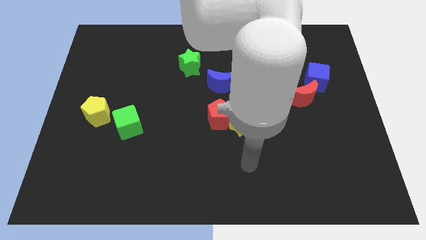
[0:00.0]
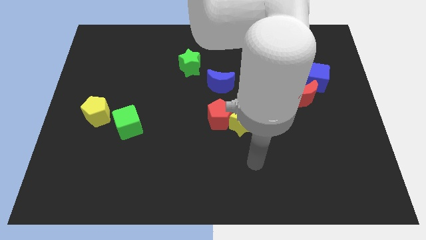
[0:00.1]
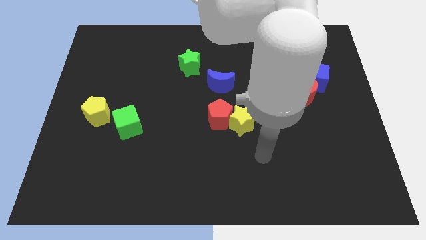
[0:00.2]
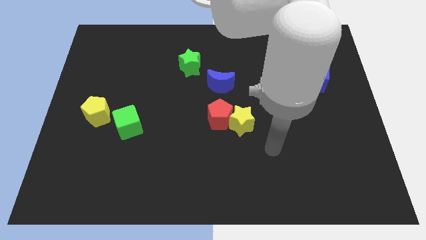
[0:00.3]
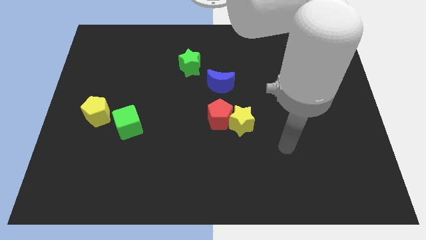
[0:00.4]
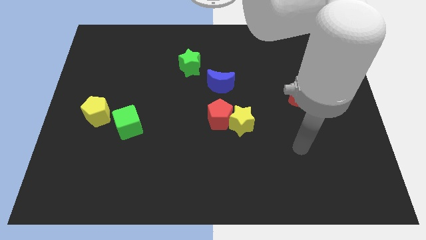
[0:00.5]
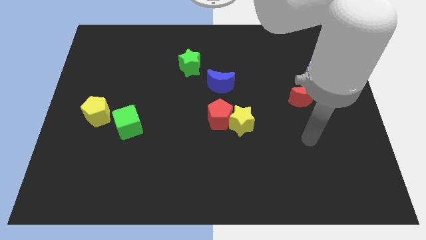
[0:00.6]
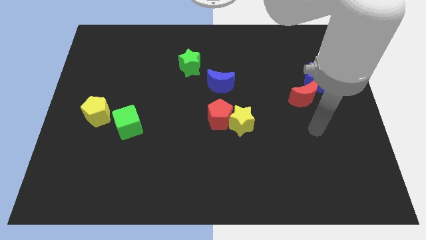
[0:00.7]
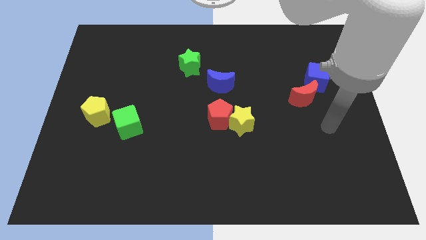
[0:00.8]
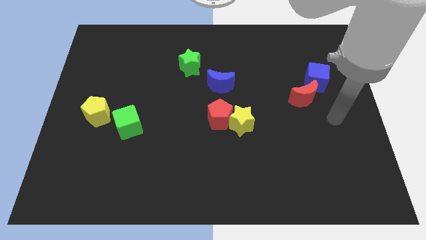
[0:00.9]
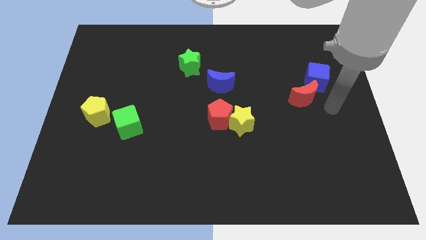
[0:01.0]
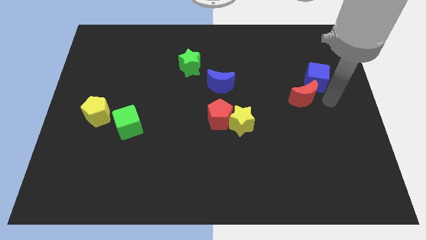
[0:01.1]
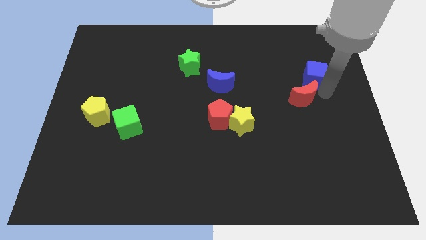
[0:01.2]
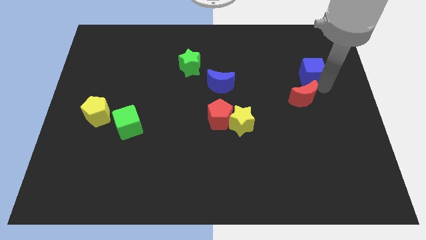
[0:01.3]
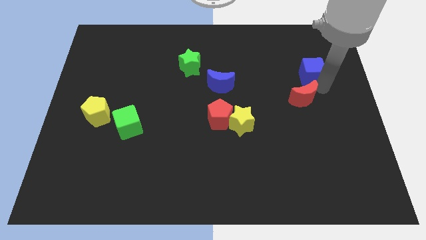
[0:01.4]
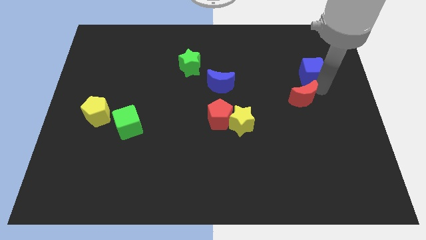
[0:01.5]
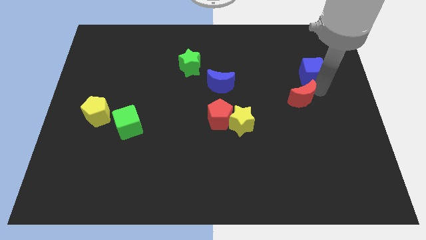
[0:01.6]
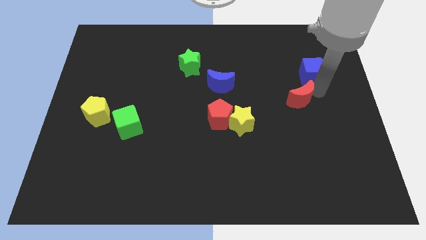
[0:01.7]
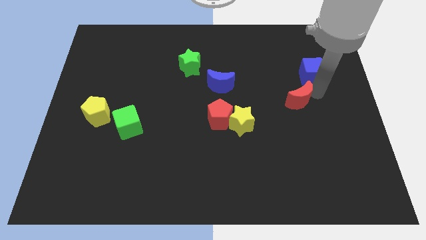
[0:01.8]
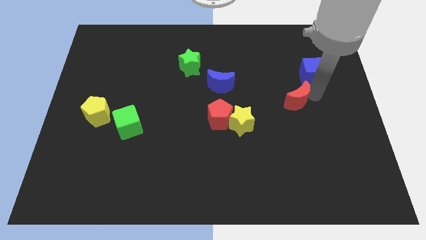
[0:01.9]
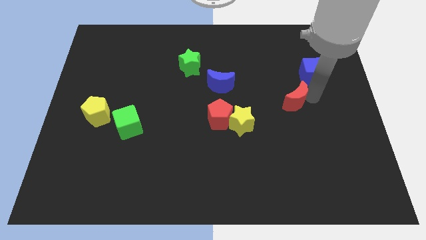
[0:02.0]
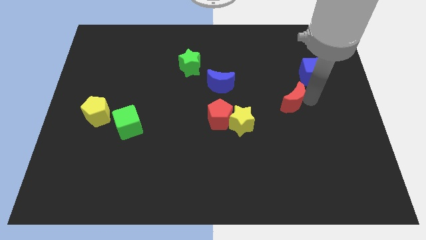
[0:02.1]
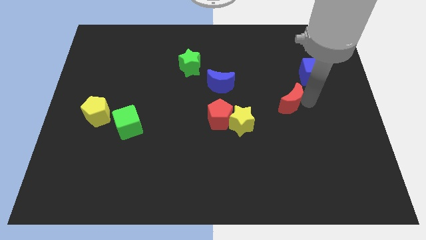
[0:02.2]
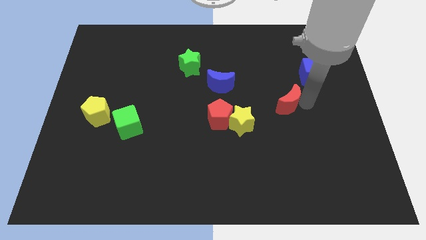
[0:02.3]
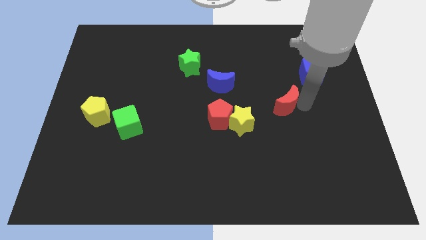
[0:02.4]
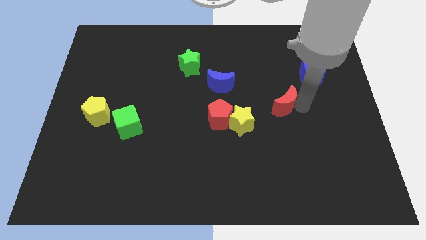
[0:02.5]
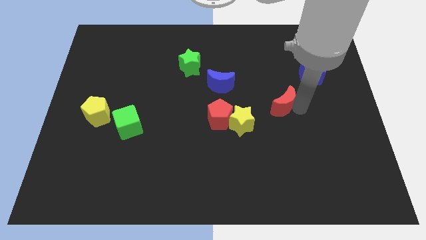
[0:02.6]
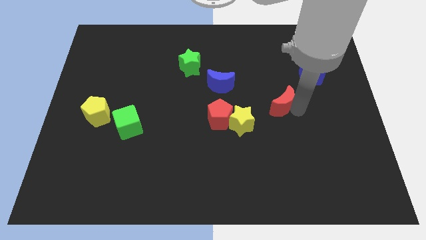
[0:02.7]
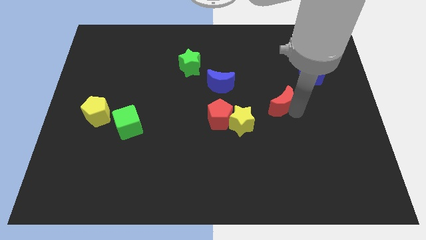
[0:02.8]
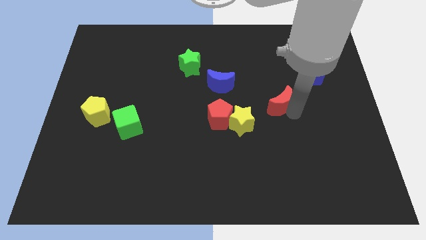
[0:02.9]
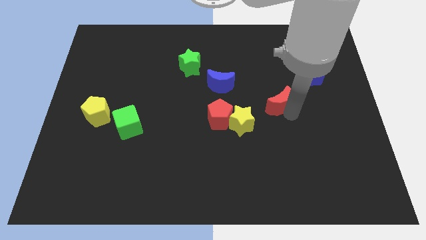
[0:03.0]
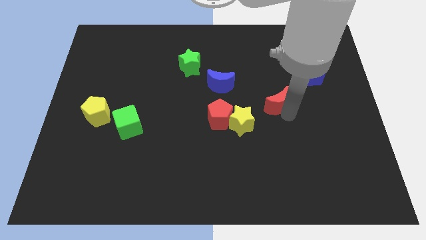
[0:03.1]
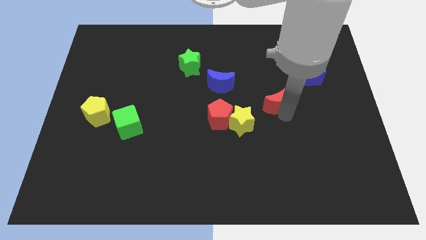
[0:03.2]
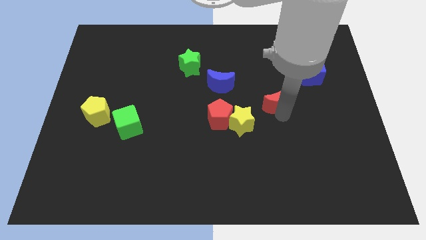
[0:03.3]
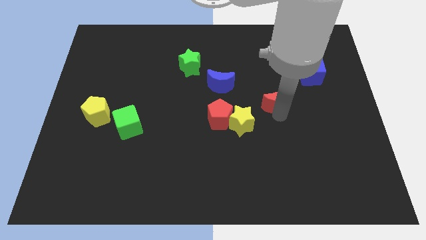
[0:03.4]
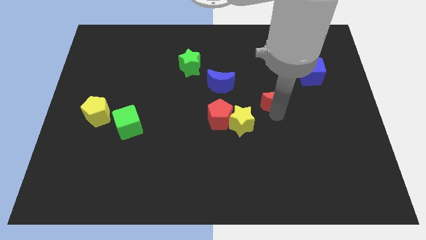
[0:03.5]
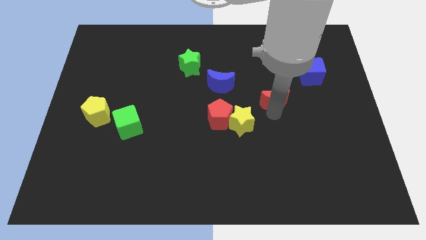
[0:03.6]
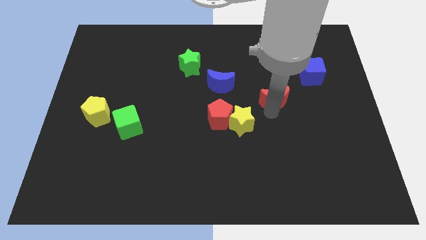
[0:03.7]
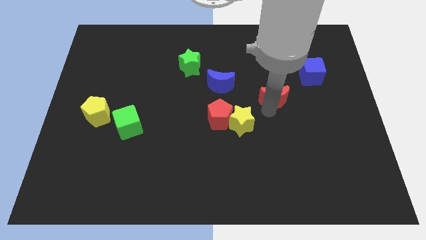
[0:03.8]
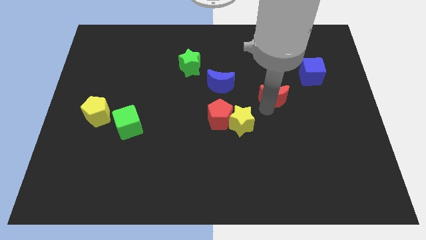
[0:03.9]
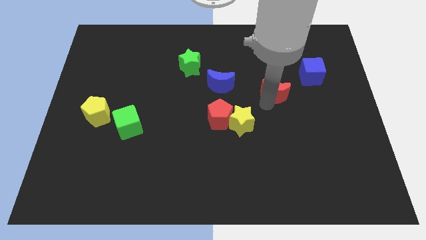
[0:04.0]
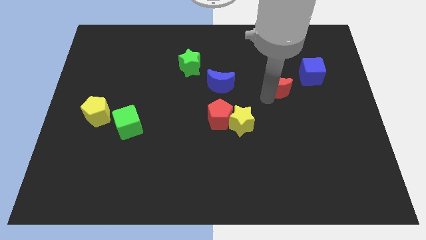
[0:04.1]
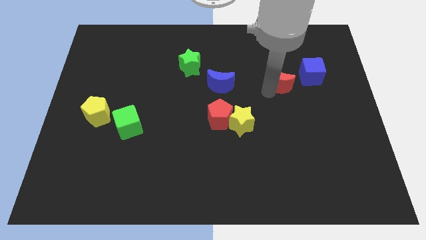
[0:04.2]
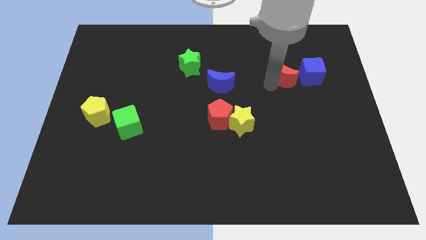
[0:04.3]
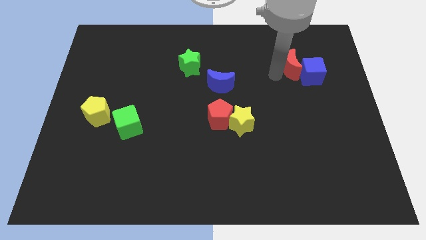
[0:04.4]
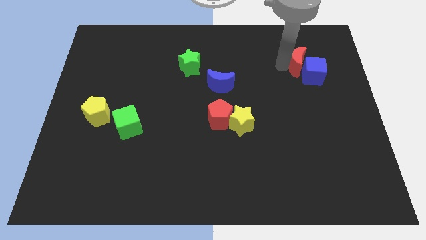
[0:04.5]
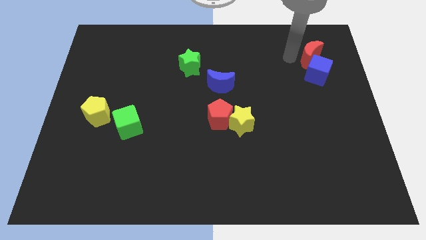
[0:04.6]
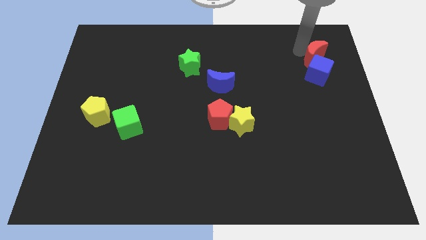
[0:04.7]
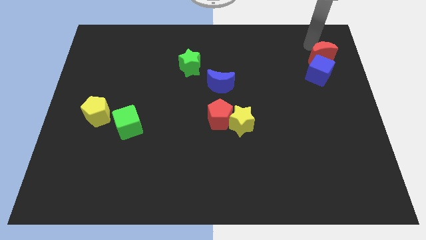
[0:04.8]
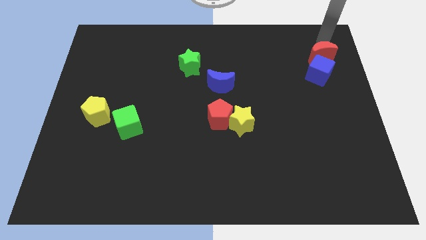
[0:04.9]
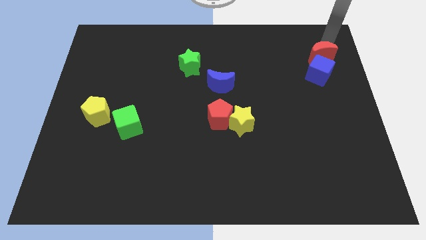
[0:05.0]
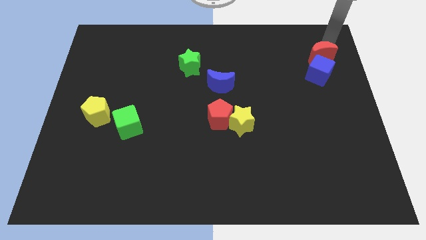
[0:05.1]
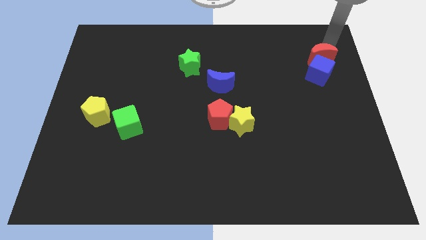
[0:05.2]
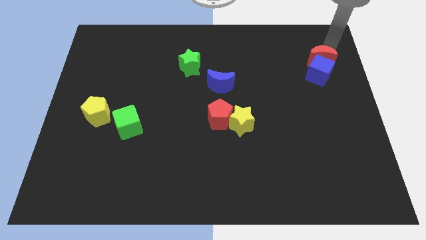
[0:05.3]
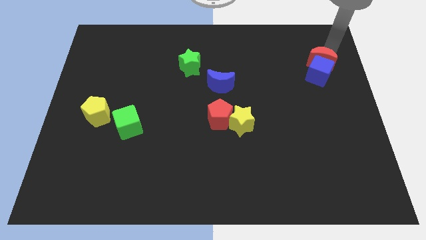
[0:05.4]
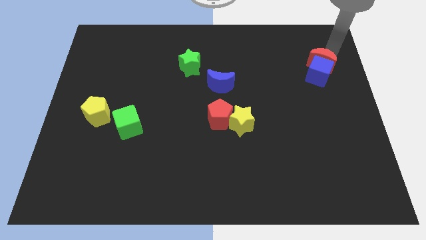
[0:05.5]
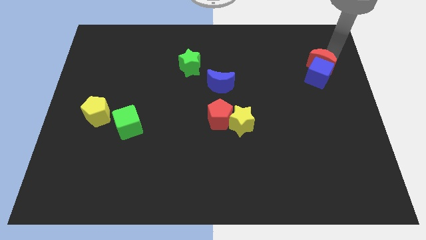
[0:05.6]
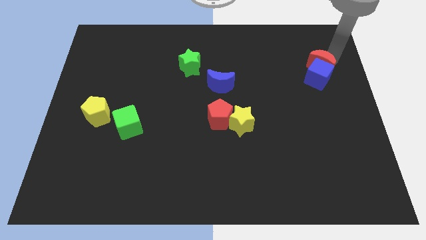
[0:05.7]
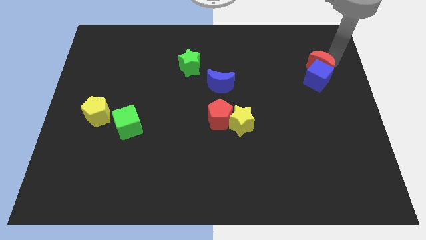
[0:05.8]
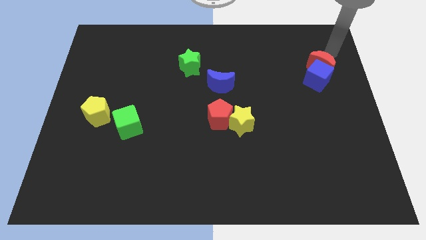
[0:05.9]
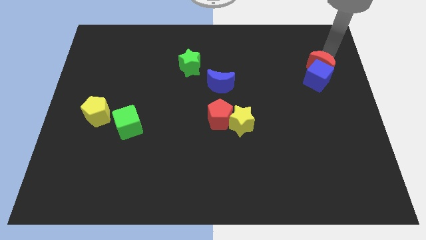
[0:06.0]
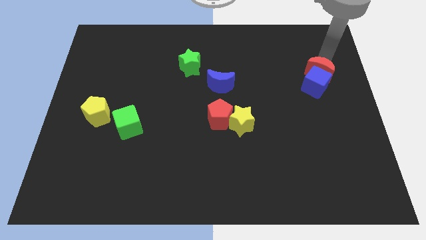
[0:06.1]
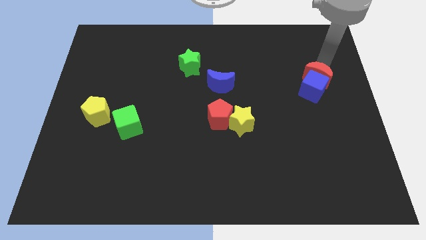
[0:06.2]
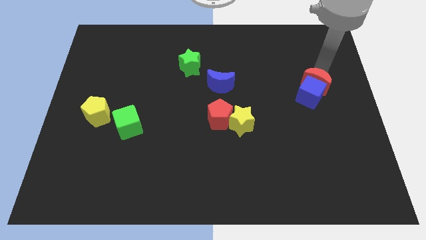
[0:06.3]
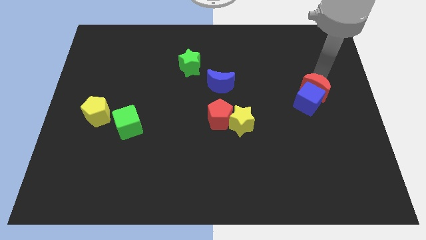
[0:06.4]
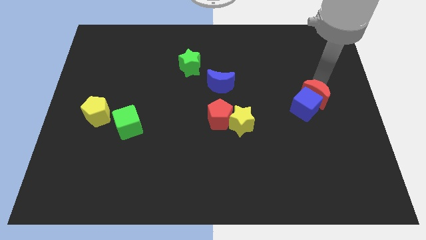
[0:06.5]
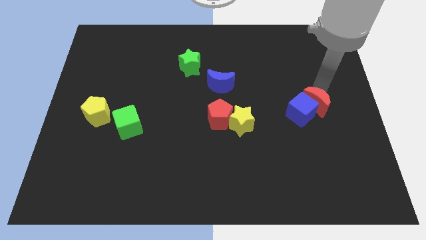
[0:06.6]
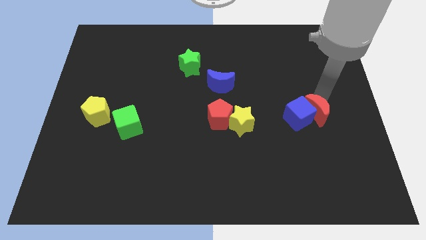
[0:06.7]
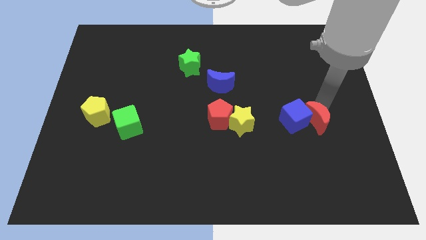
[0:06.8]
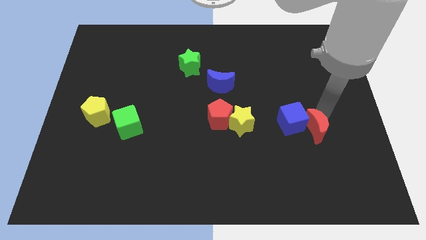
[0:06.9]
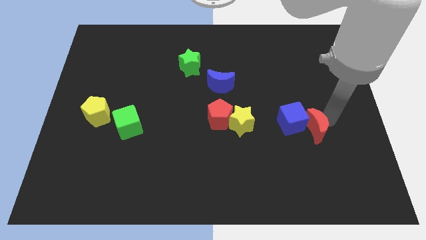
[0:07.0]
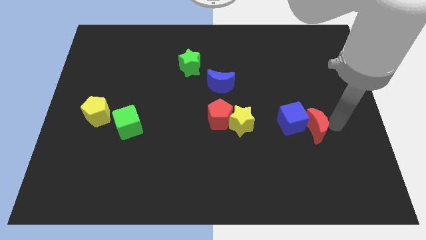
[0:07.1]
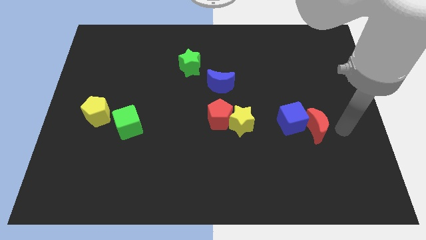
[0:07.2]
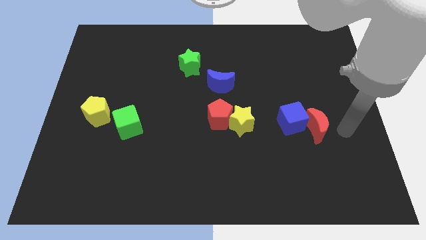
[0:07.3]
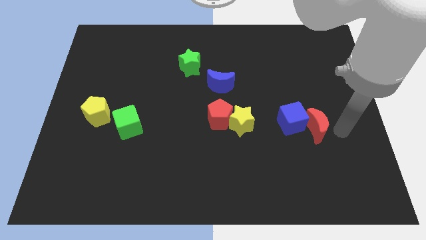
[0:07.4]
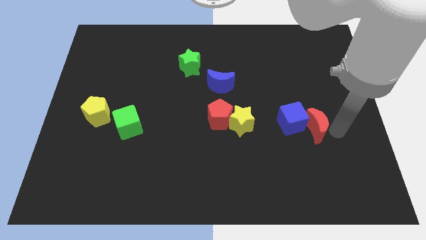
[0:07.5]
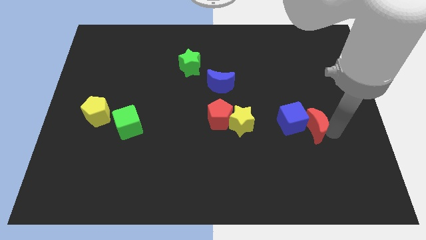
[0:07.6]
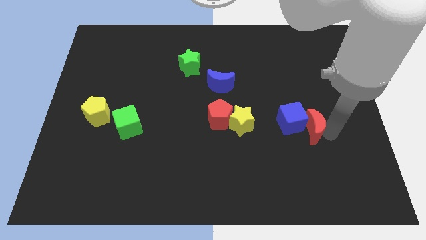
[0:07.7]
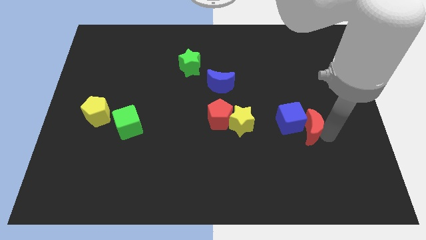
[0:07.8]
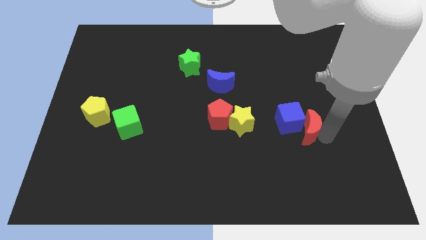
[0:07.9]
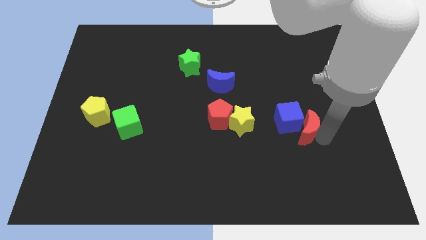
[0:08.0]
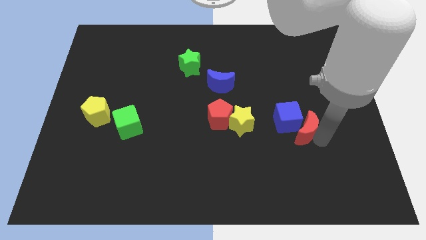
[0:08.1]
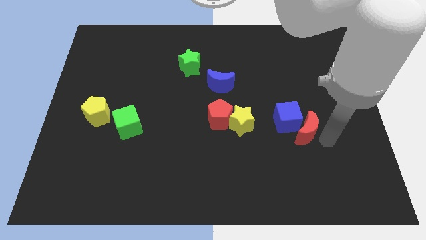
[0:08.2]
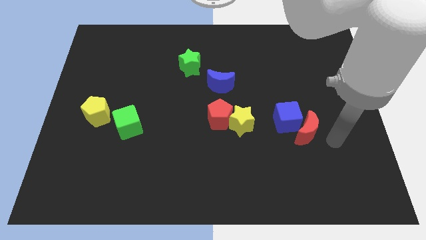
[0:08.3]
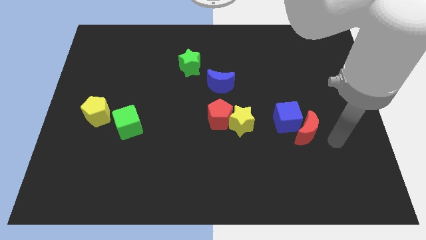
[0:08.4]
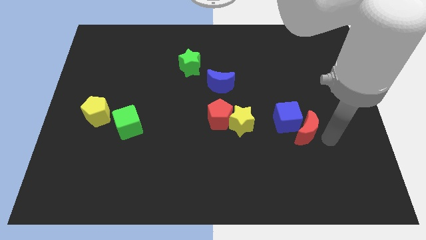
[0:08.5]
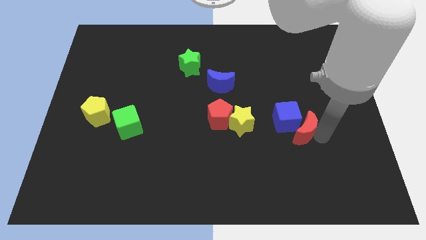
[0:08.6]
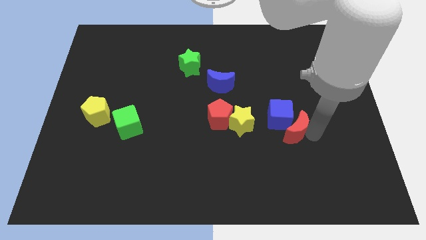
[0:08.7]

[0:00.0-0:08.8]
push the red moon a bit down and to the left diagonally
